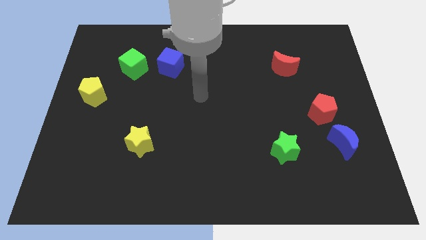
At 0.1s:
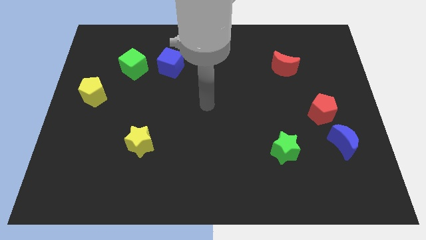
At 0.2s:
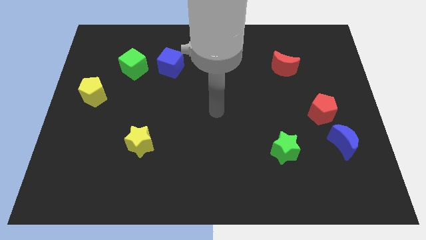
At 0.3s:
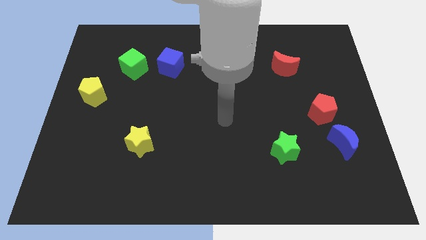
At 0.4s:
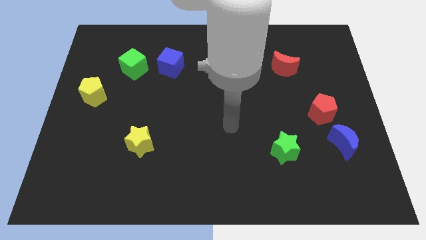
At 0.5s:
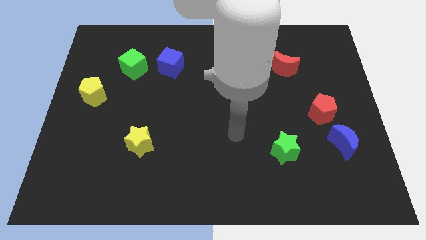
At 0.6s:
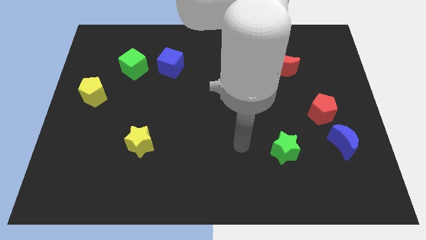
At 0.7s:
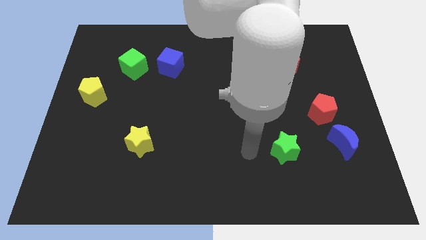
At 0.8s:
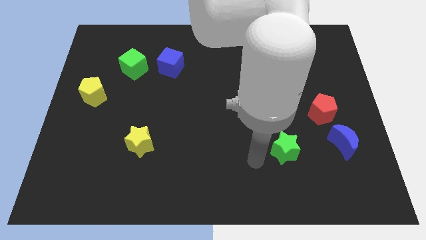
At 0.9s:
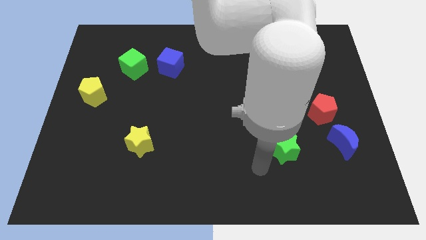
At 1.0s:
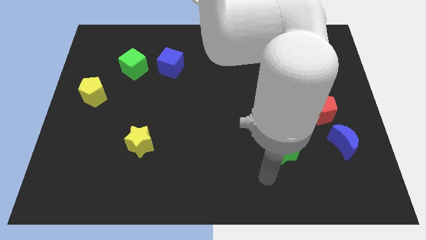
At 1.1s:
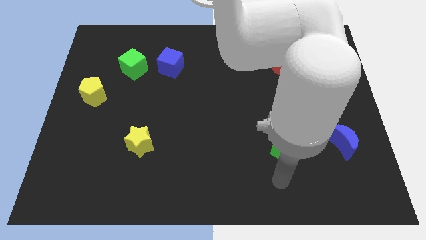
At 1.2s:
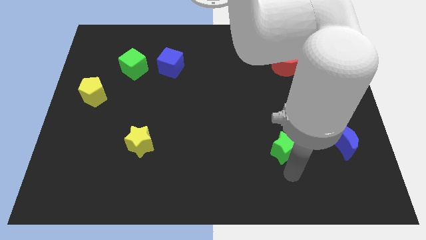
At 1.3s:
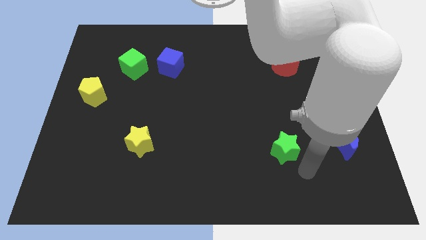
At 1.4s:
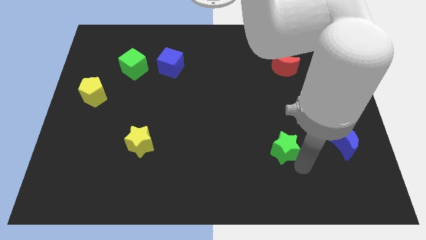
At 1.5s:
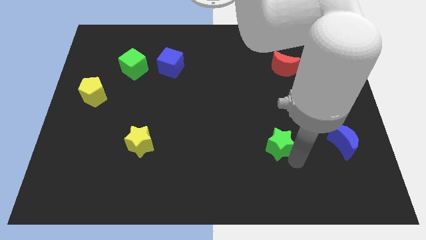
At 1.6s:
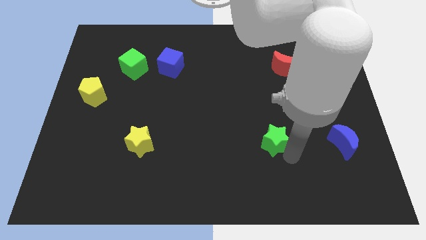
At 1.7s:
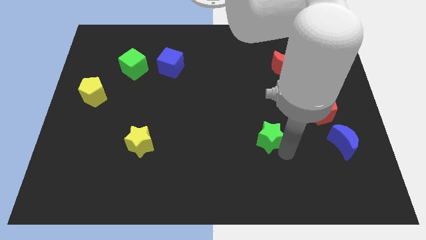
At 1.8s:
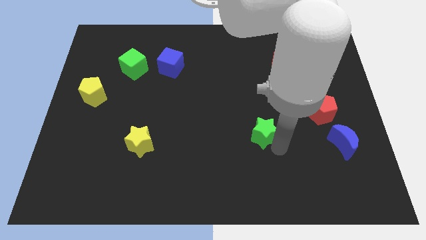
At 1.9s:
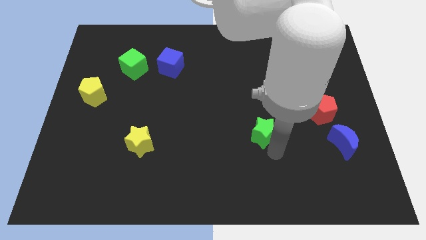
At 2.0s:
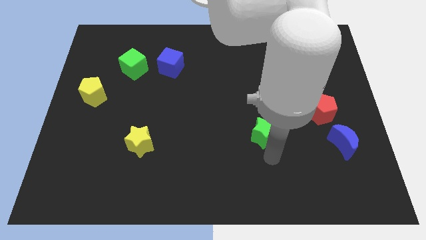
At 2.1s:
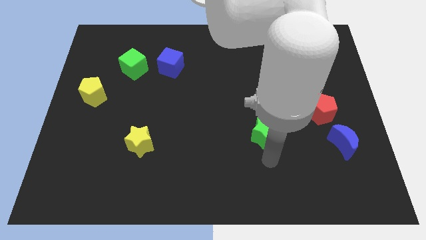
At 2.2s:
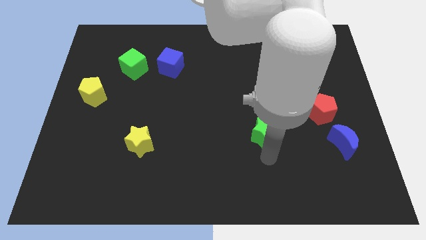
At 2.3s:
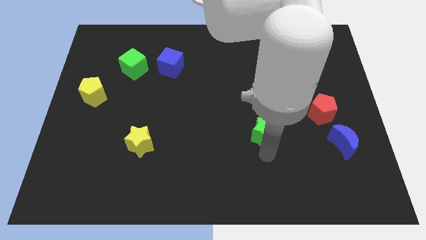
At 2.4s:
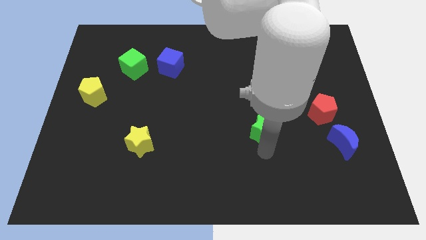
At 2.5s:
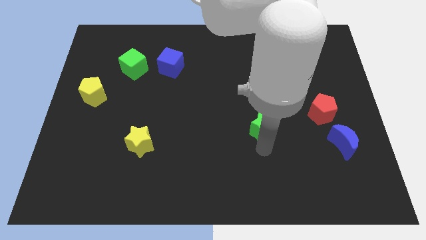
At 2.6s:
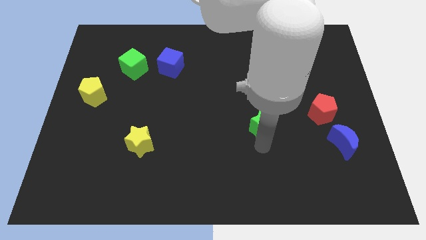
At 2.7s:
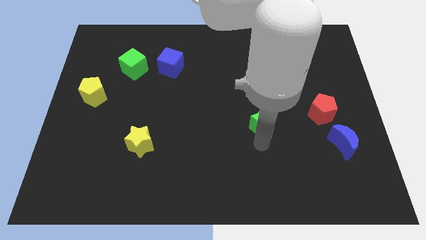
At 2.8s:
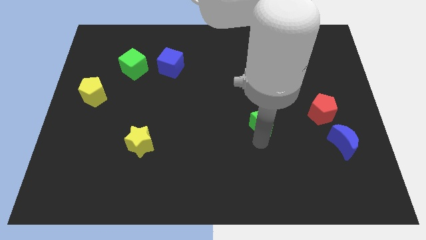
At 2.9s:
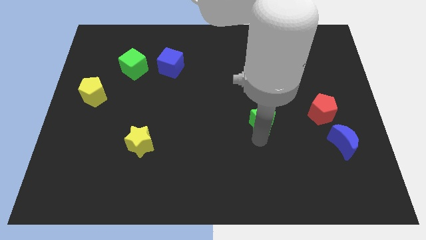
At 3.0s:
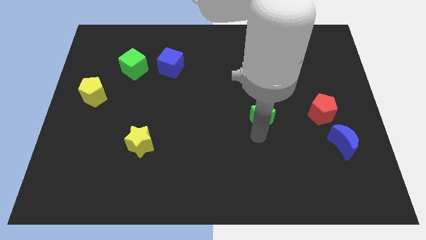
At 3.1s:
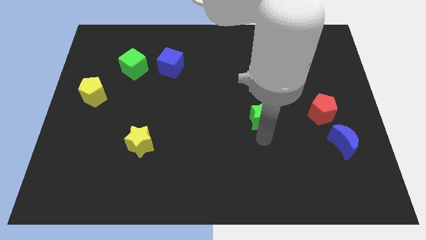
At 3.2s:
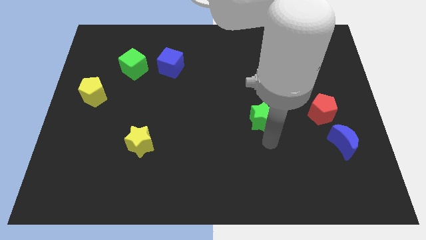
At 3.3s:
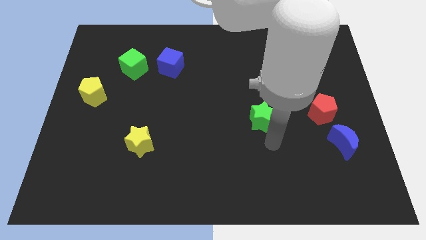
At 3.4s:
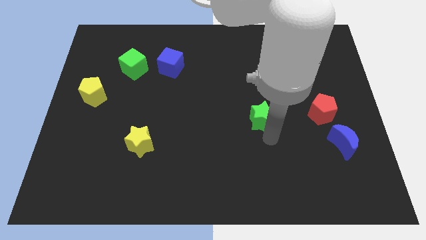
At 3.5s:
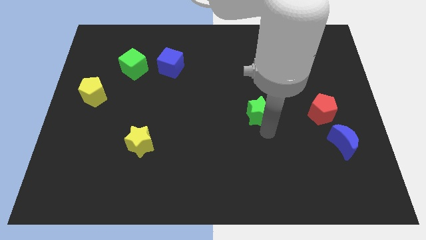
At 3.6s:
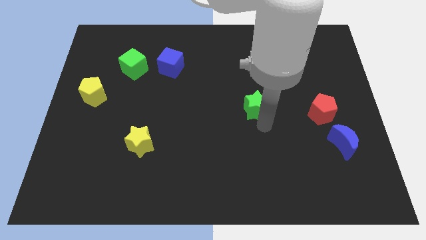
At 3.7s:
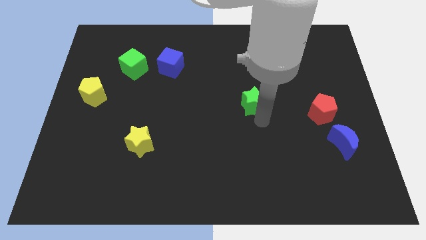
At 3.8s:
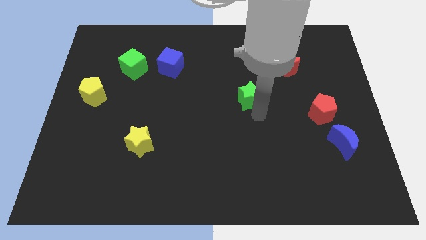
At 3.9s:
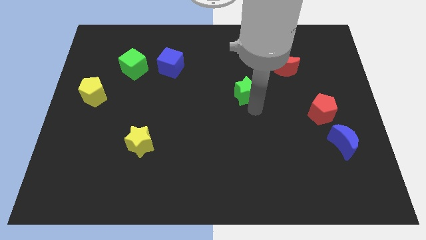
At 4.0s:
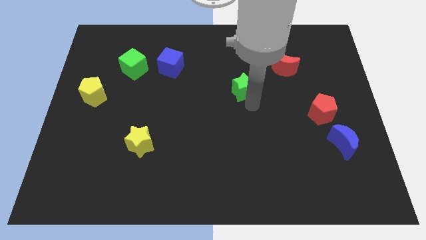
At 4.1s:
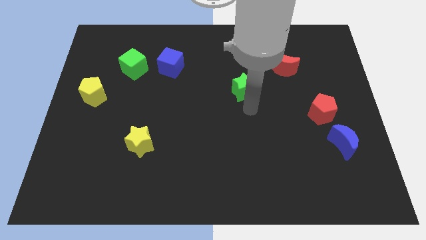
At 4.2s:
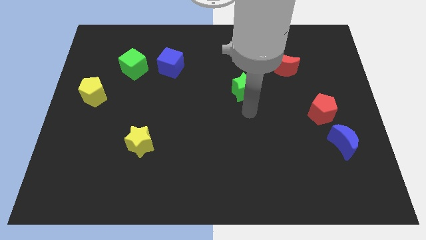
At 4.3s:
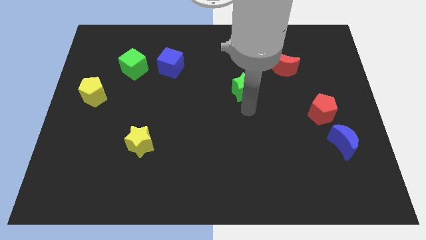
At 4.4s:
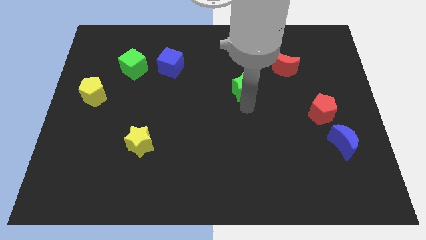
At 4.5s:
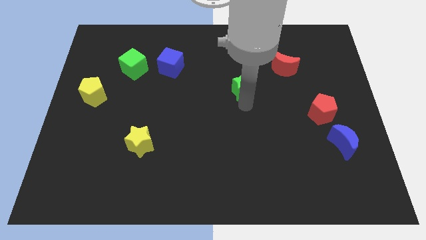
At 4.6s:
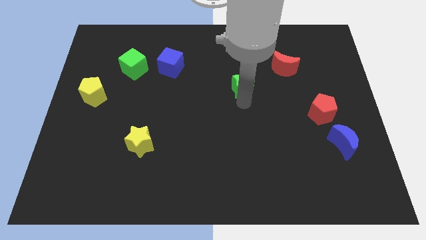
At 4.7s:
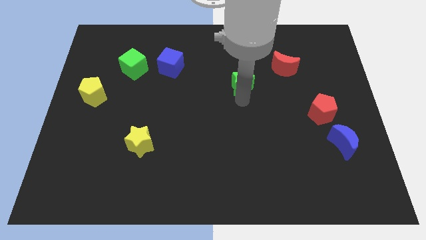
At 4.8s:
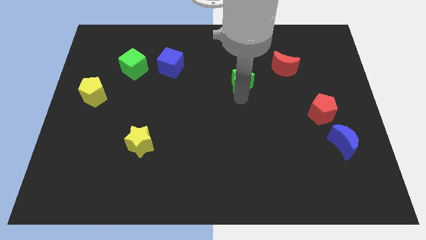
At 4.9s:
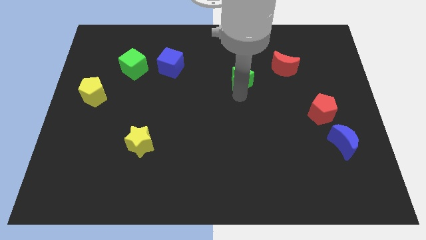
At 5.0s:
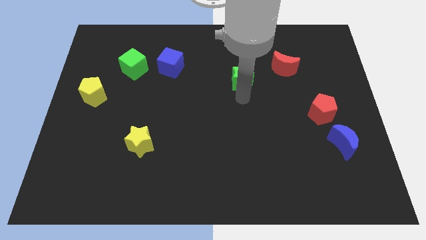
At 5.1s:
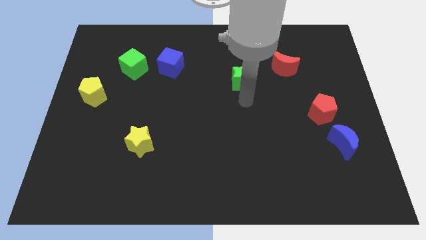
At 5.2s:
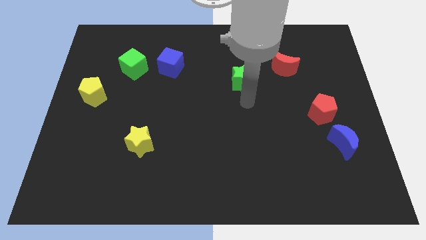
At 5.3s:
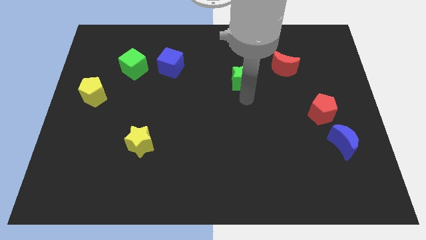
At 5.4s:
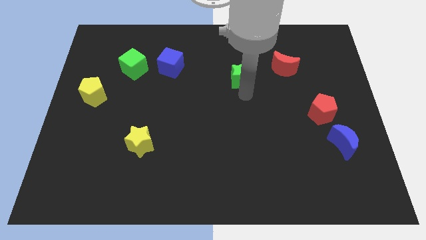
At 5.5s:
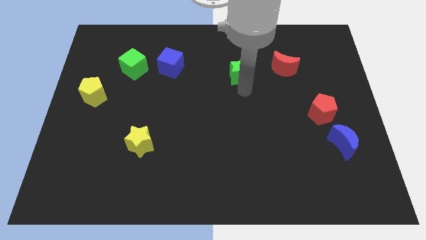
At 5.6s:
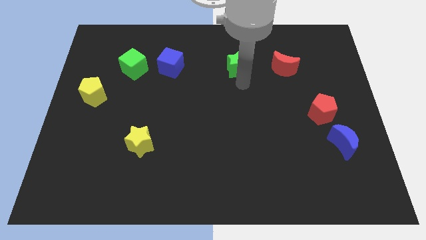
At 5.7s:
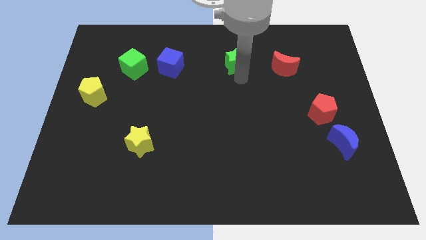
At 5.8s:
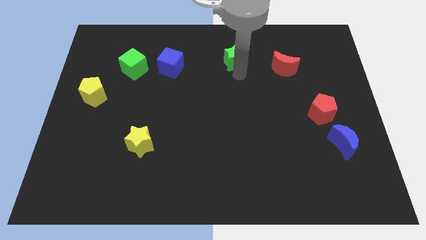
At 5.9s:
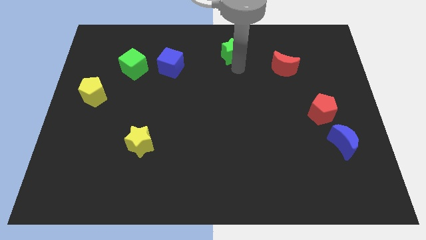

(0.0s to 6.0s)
put the green star to the top
